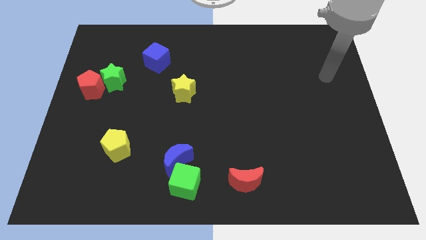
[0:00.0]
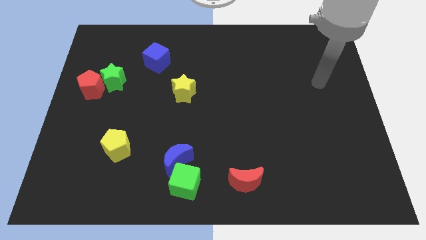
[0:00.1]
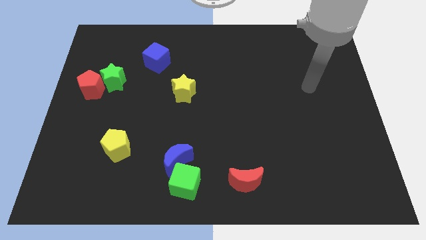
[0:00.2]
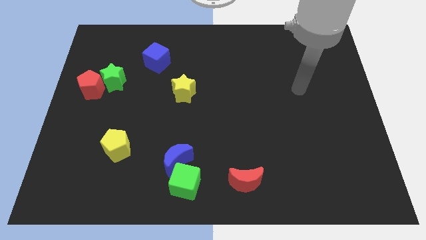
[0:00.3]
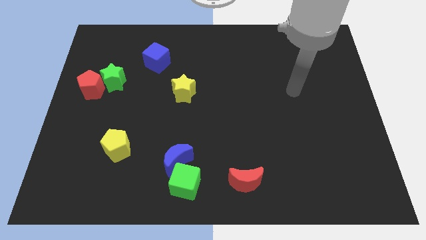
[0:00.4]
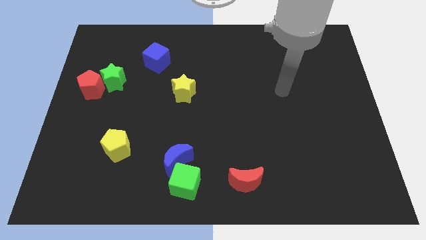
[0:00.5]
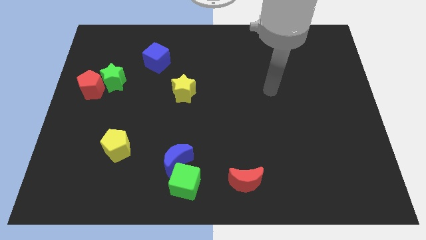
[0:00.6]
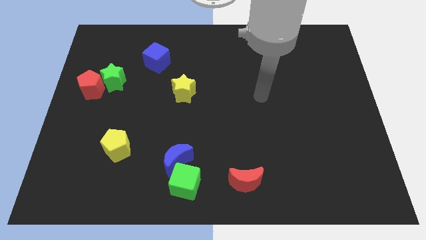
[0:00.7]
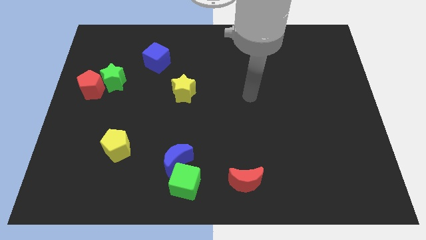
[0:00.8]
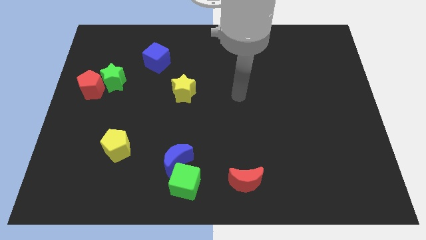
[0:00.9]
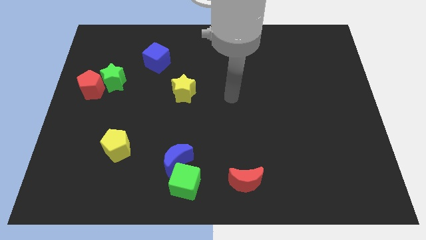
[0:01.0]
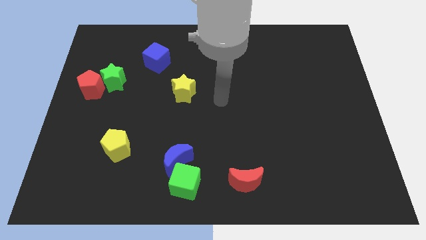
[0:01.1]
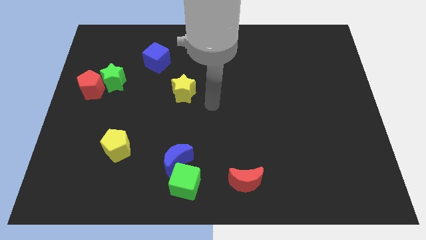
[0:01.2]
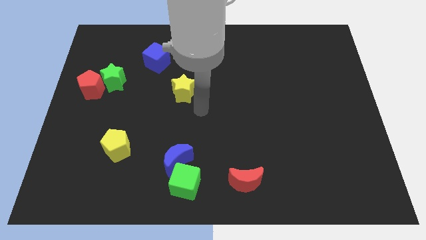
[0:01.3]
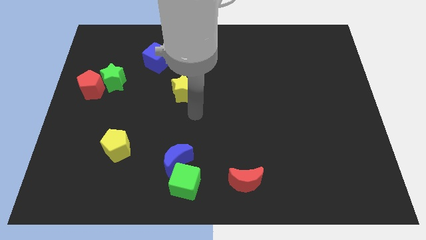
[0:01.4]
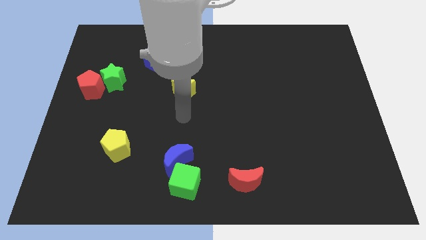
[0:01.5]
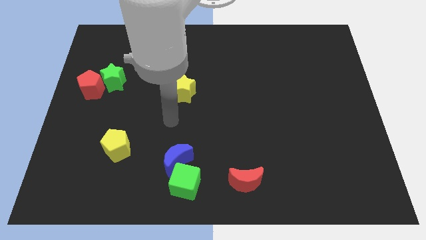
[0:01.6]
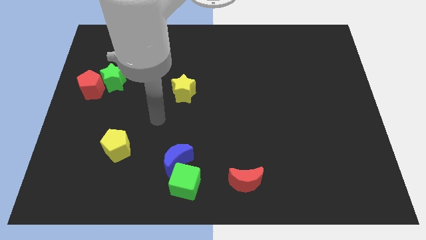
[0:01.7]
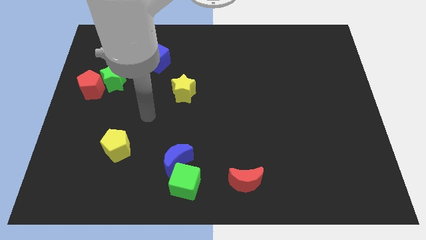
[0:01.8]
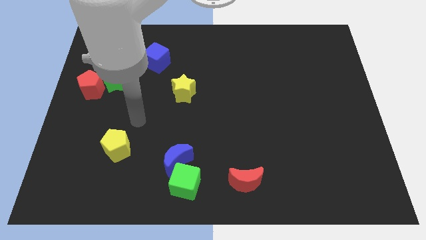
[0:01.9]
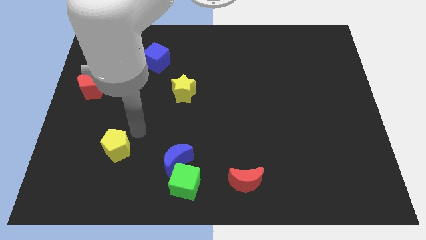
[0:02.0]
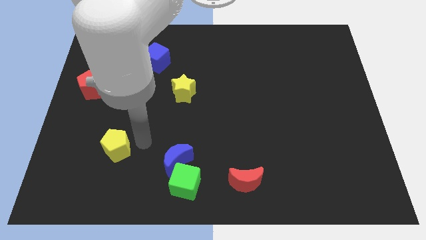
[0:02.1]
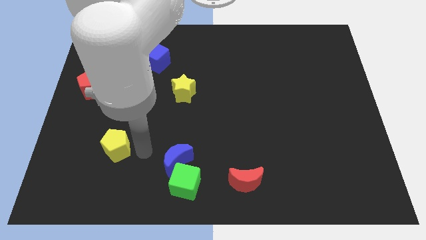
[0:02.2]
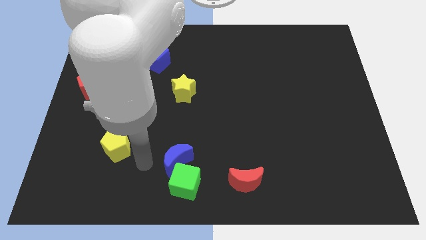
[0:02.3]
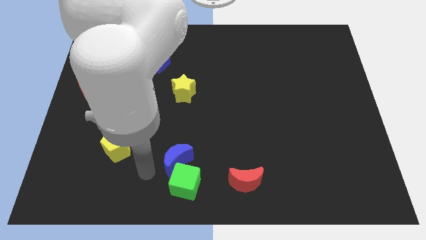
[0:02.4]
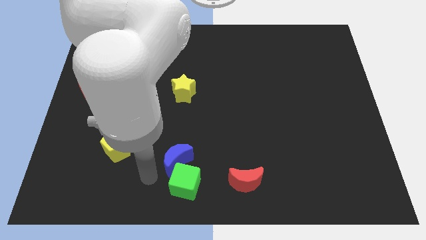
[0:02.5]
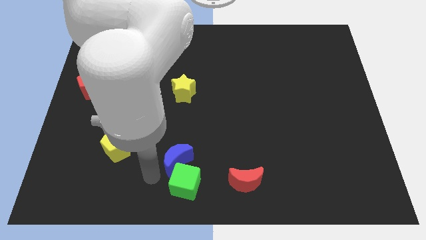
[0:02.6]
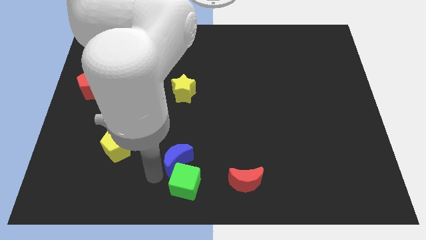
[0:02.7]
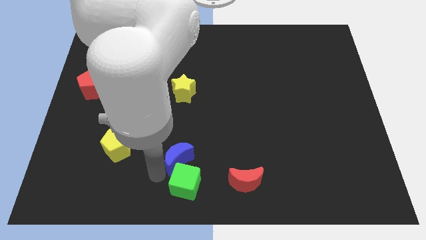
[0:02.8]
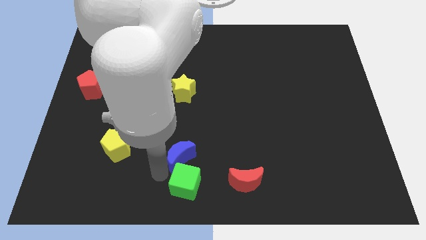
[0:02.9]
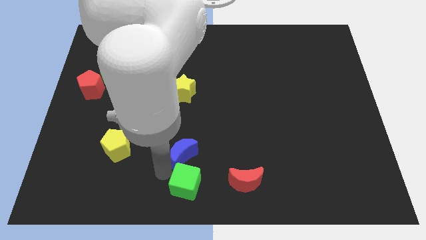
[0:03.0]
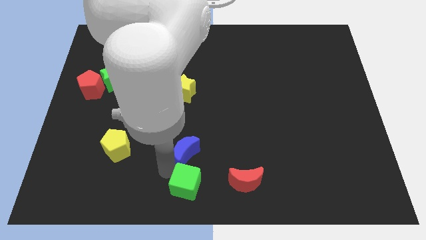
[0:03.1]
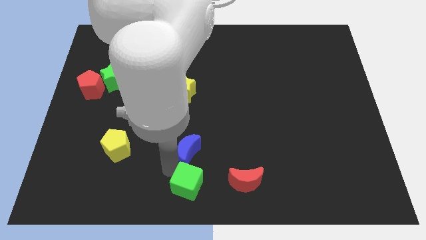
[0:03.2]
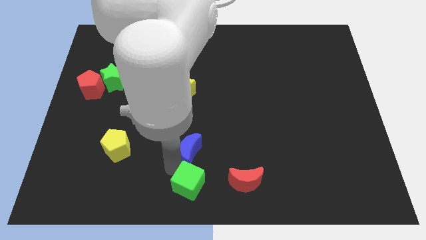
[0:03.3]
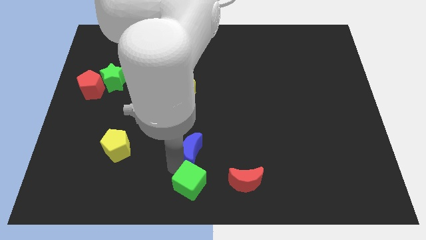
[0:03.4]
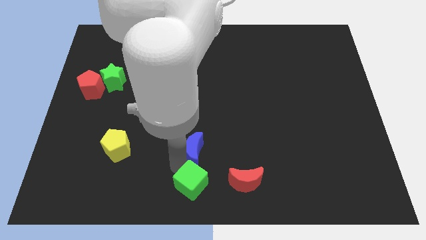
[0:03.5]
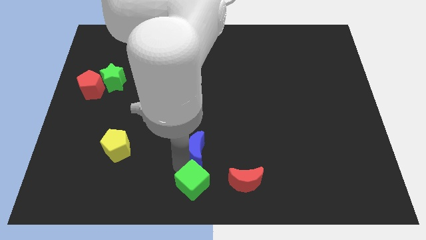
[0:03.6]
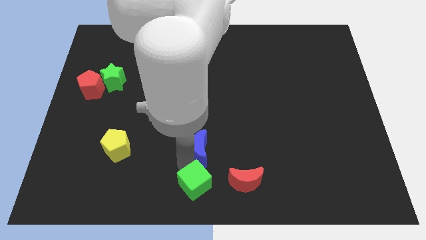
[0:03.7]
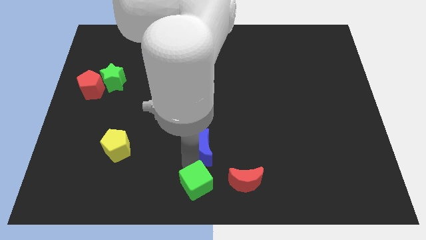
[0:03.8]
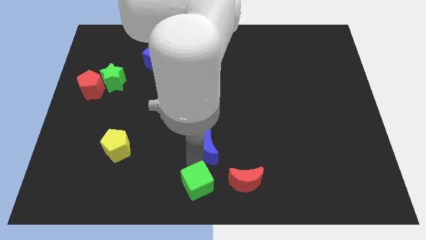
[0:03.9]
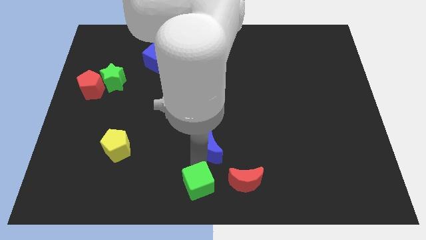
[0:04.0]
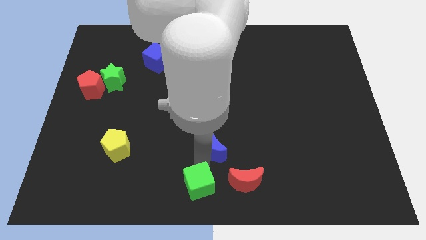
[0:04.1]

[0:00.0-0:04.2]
slightly move the blue moon diagonally up and right

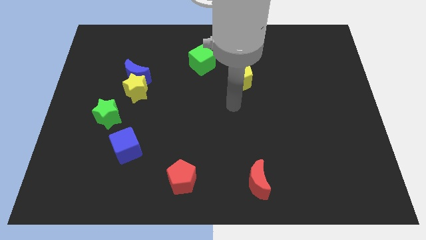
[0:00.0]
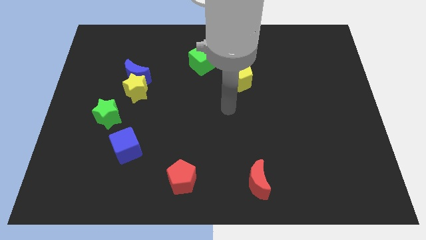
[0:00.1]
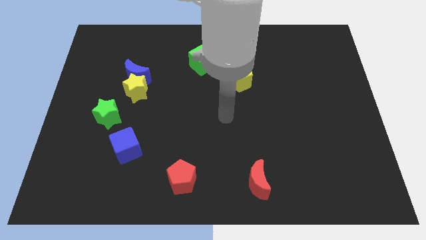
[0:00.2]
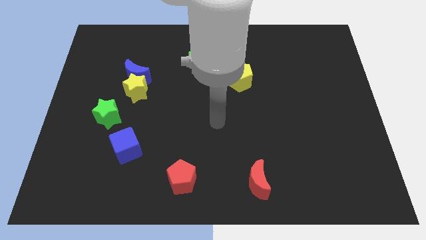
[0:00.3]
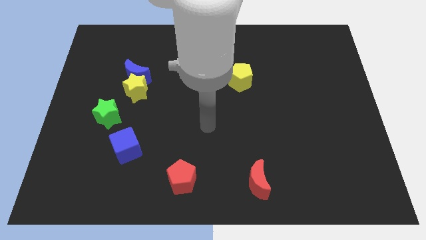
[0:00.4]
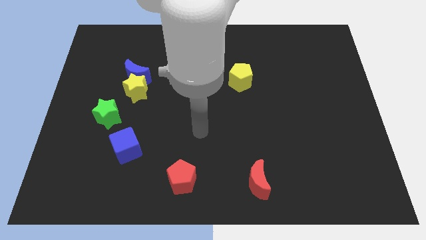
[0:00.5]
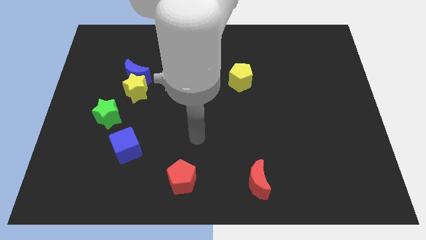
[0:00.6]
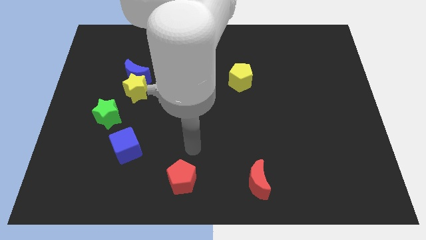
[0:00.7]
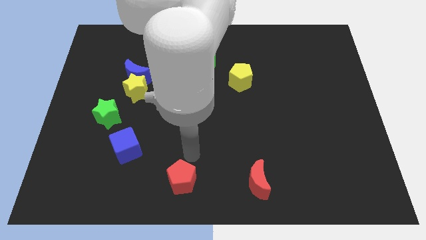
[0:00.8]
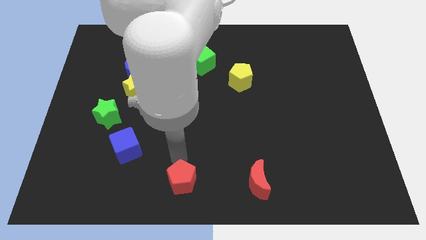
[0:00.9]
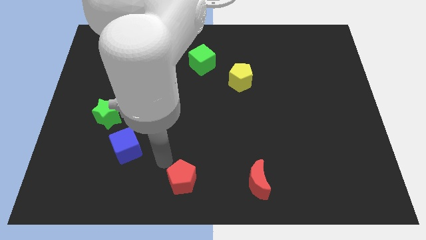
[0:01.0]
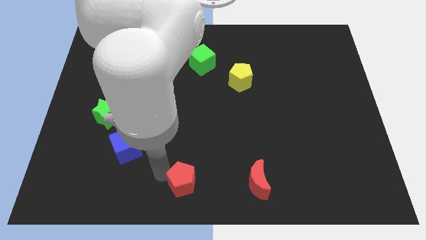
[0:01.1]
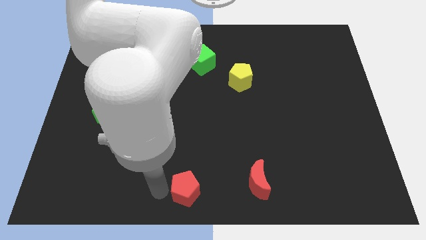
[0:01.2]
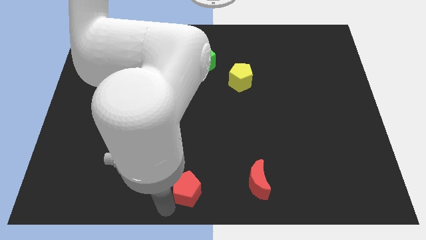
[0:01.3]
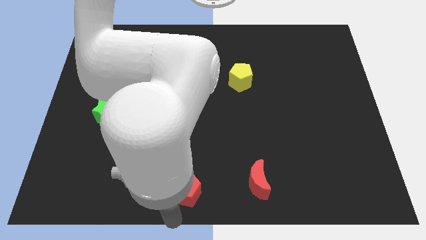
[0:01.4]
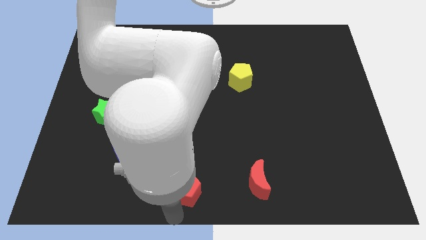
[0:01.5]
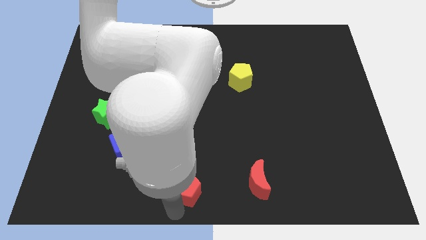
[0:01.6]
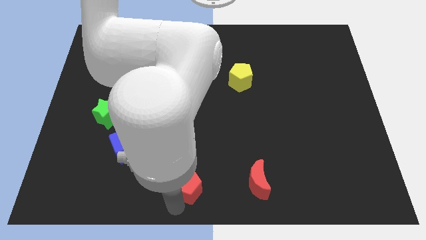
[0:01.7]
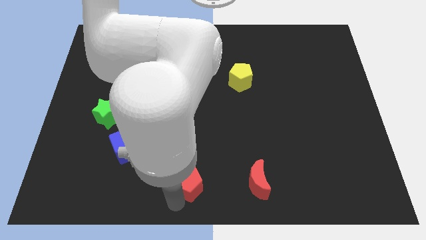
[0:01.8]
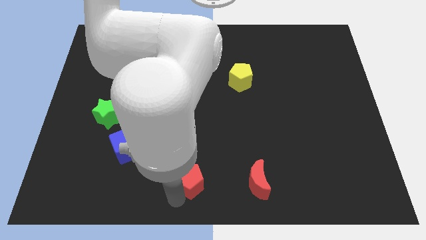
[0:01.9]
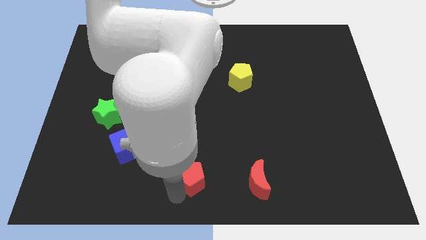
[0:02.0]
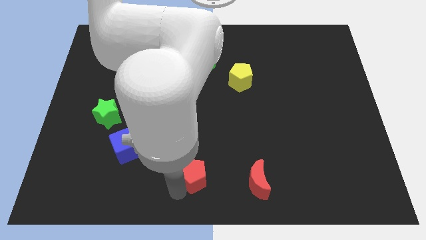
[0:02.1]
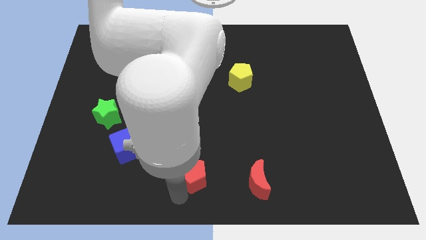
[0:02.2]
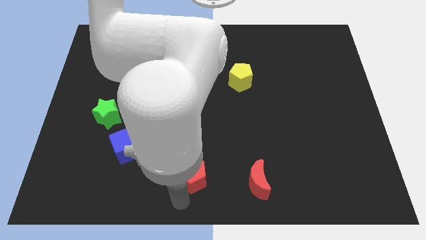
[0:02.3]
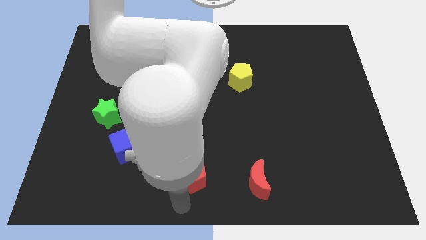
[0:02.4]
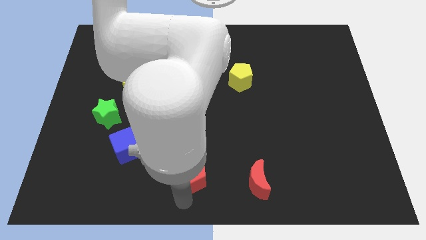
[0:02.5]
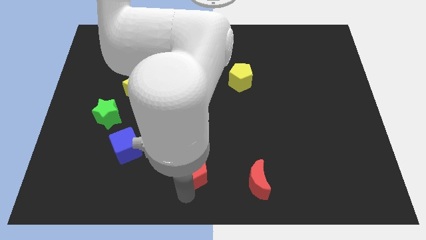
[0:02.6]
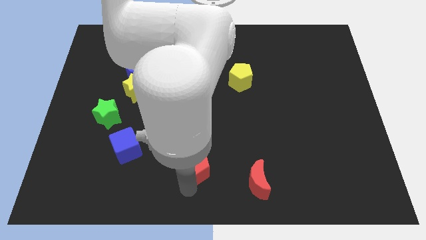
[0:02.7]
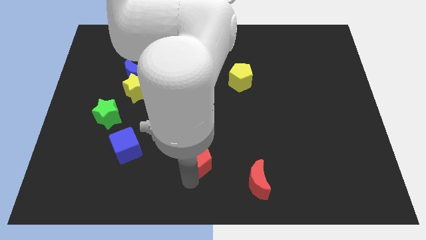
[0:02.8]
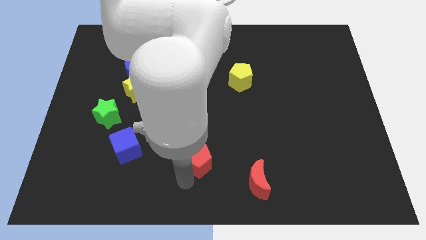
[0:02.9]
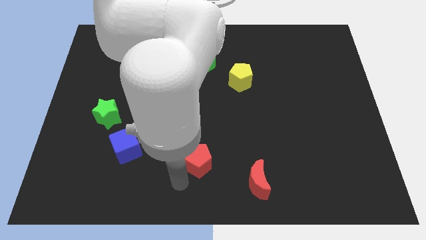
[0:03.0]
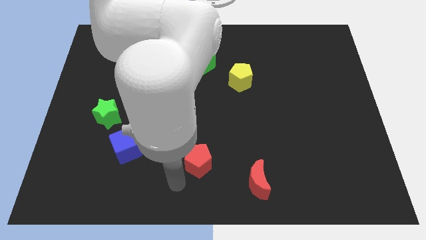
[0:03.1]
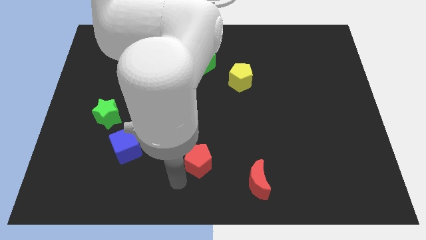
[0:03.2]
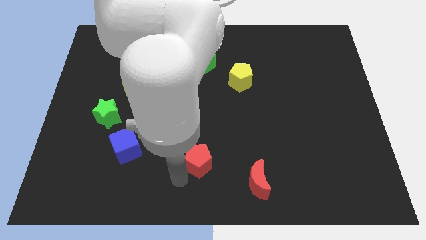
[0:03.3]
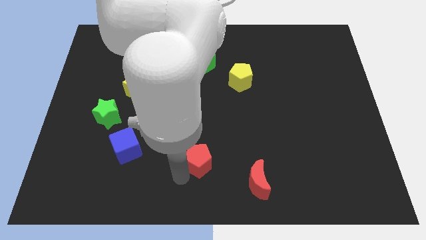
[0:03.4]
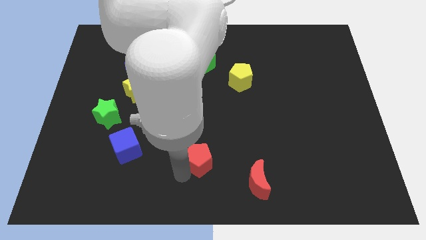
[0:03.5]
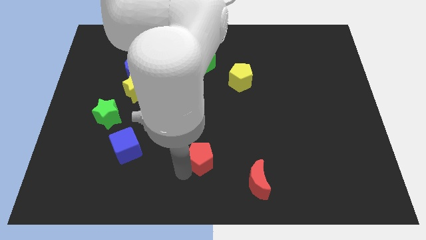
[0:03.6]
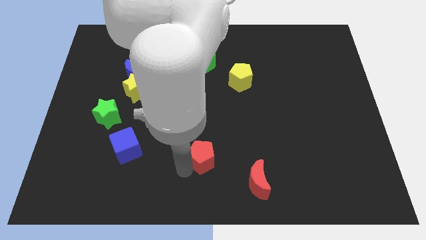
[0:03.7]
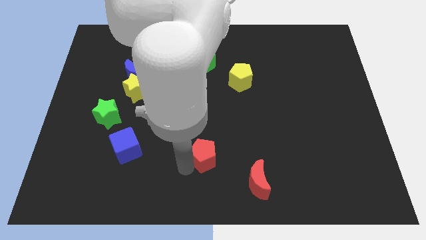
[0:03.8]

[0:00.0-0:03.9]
move the red pentagon a little bit up and then right
